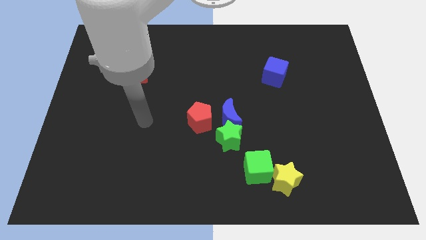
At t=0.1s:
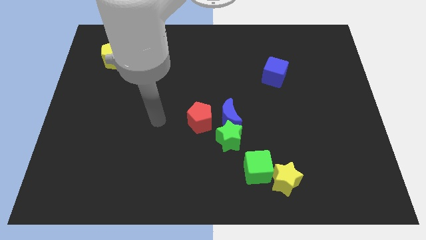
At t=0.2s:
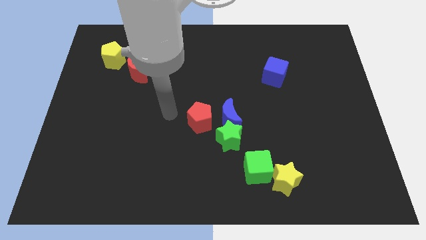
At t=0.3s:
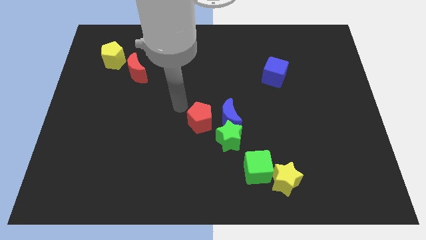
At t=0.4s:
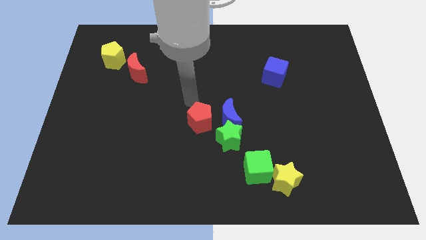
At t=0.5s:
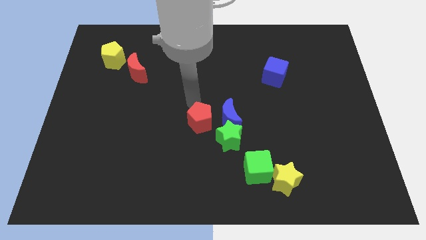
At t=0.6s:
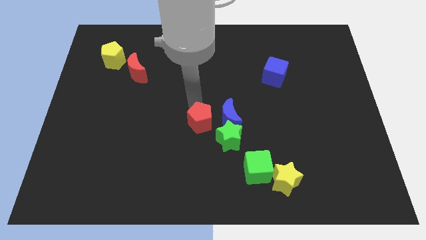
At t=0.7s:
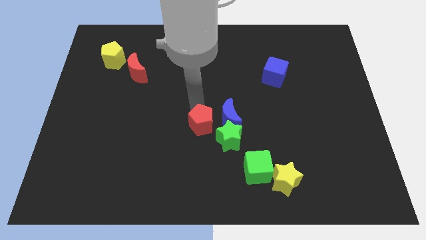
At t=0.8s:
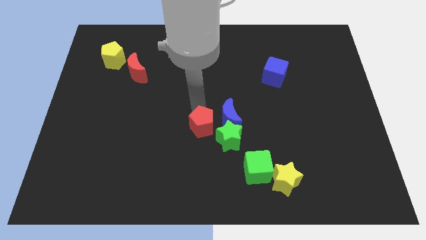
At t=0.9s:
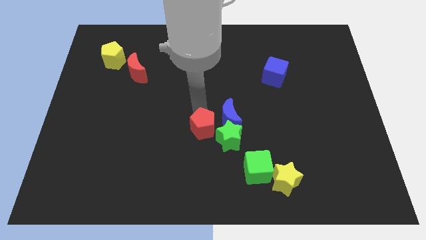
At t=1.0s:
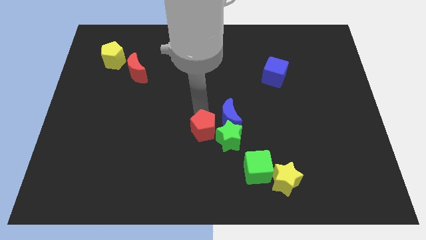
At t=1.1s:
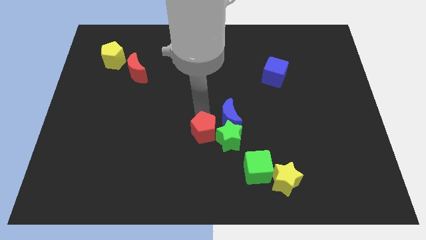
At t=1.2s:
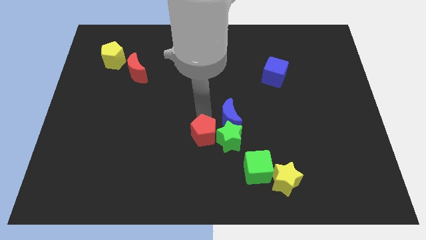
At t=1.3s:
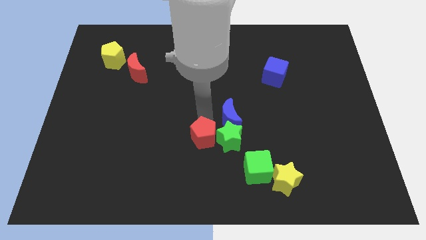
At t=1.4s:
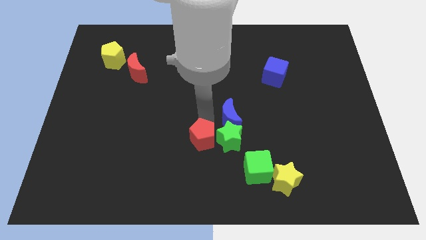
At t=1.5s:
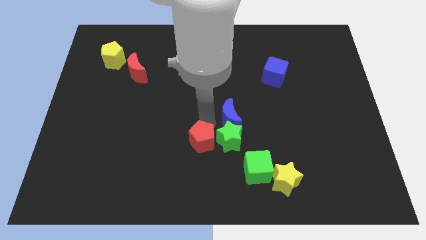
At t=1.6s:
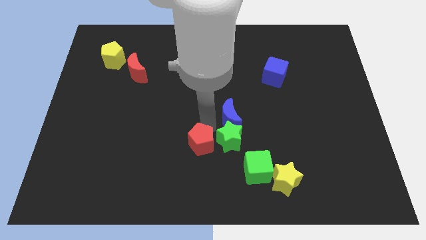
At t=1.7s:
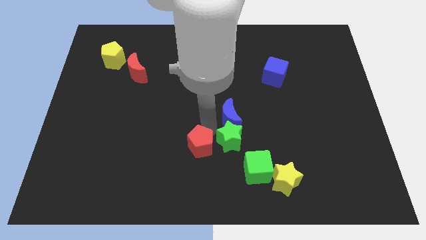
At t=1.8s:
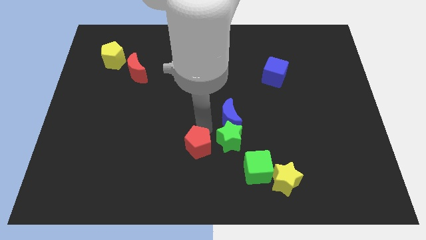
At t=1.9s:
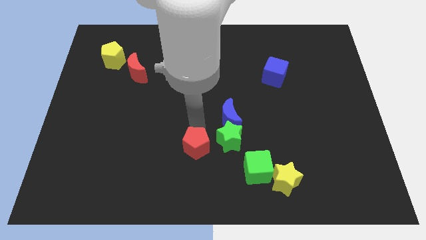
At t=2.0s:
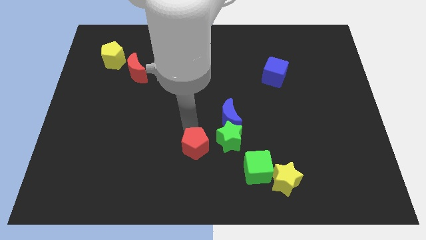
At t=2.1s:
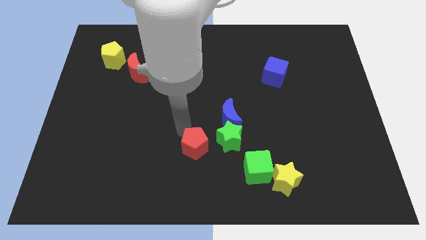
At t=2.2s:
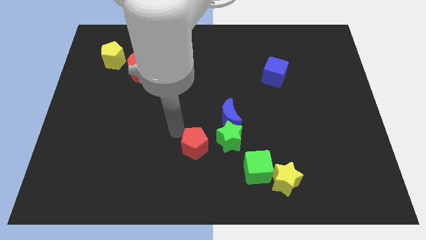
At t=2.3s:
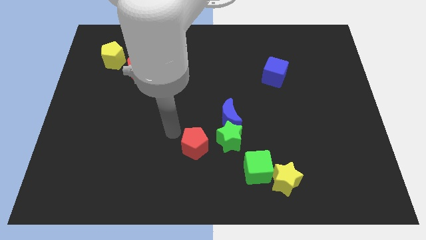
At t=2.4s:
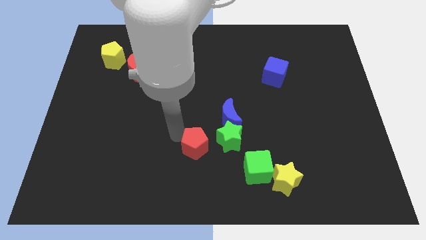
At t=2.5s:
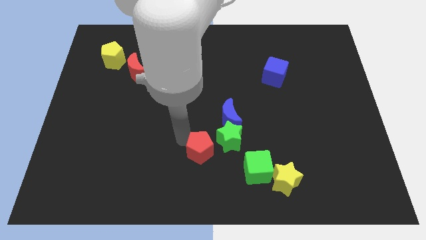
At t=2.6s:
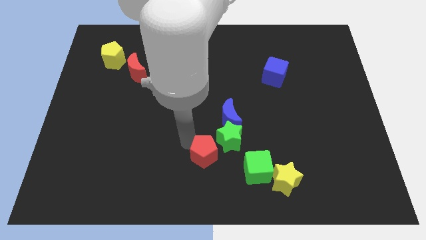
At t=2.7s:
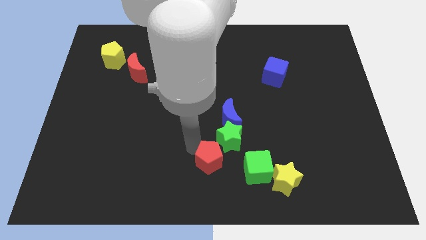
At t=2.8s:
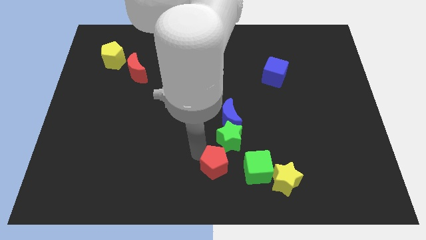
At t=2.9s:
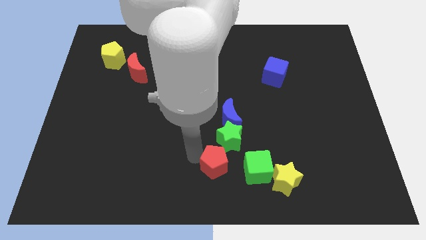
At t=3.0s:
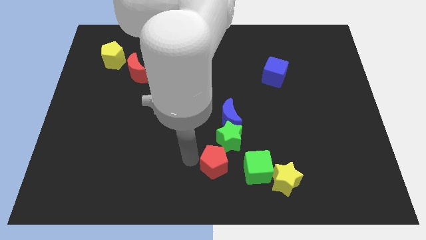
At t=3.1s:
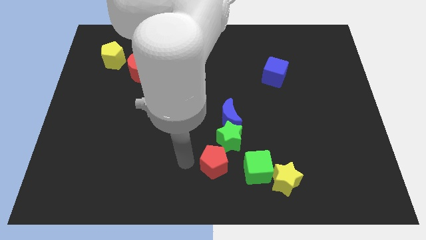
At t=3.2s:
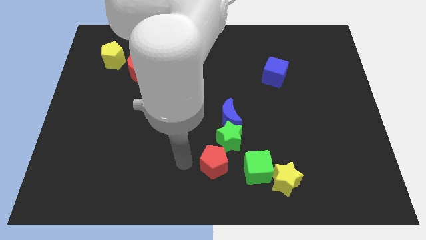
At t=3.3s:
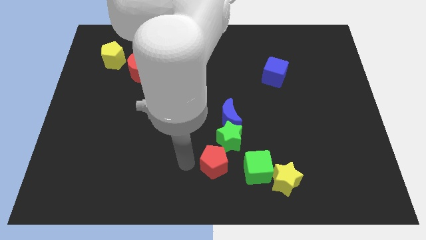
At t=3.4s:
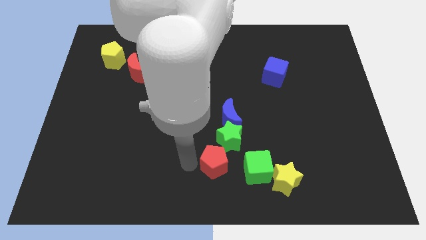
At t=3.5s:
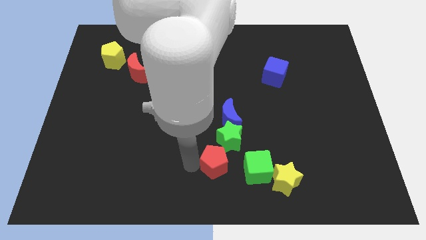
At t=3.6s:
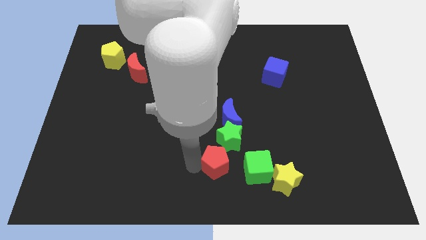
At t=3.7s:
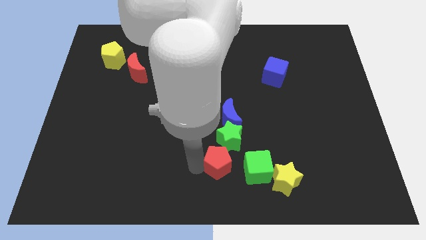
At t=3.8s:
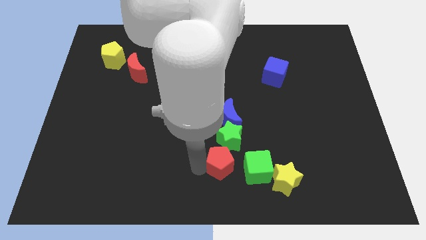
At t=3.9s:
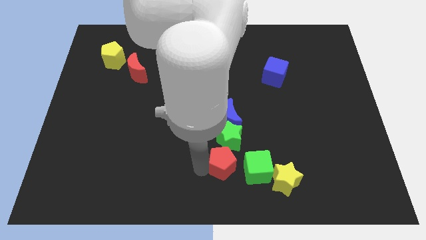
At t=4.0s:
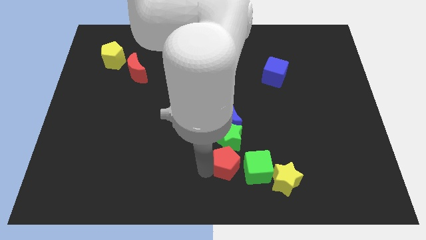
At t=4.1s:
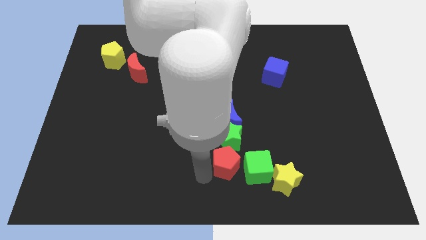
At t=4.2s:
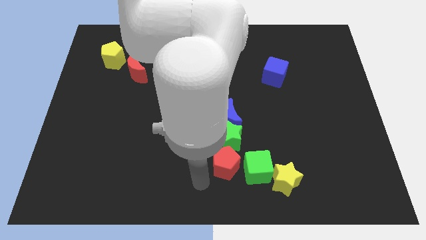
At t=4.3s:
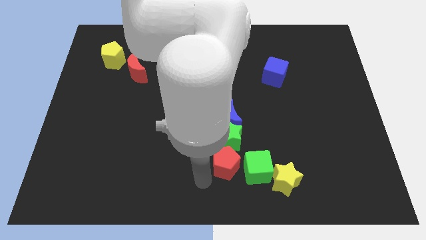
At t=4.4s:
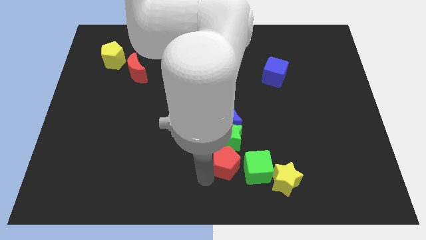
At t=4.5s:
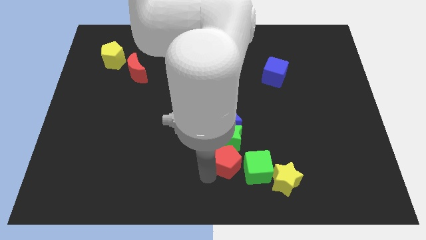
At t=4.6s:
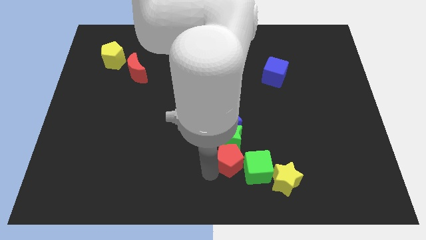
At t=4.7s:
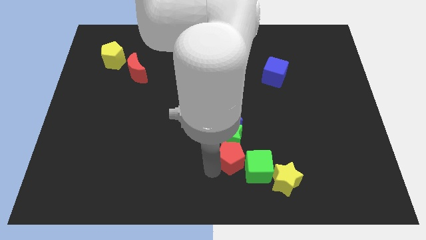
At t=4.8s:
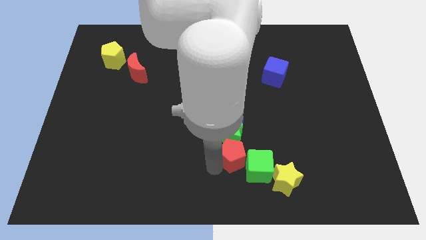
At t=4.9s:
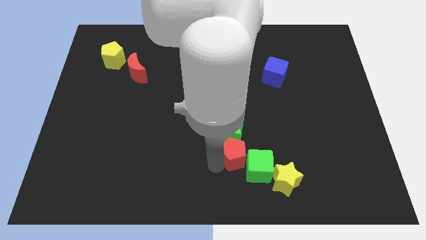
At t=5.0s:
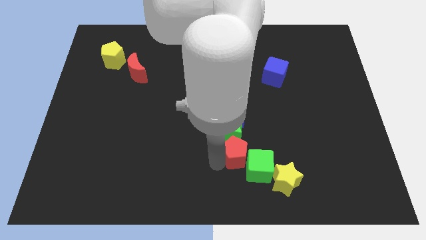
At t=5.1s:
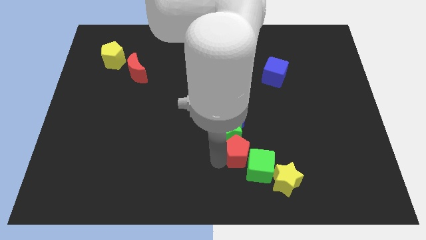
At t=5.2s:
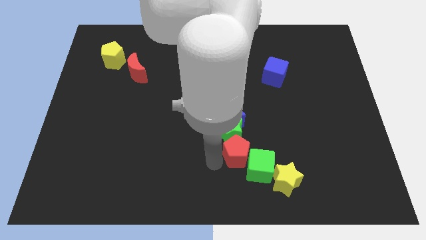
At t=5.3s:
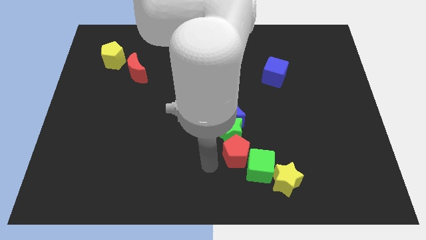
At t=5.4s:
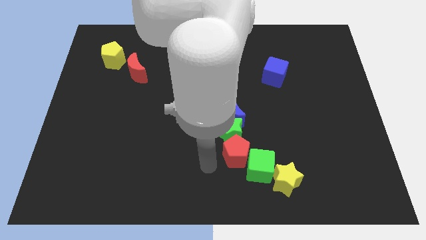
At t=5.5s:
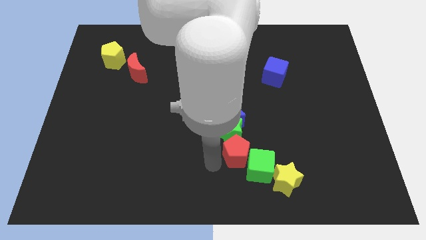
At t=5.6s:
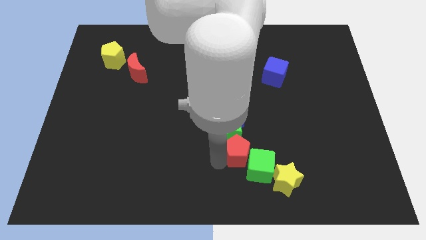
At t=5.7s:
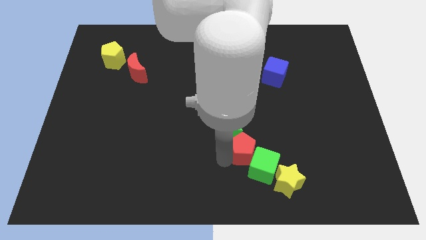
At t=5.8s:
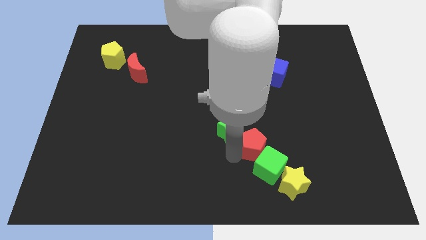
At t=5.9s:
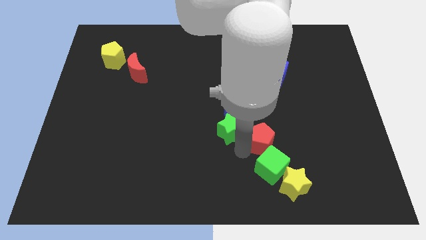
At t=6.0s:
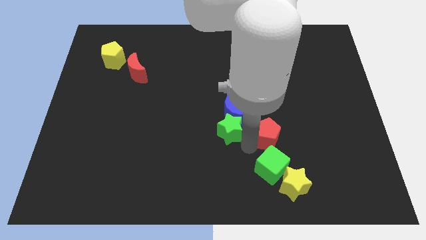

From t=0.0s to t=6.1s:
move the red pentagon above the yellow star
